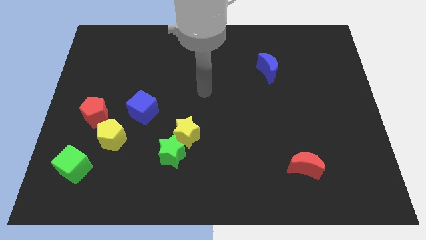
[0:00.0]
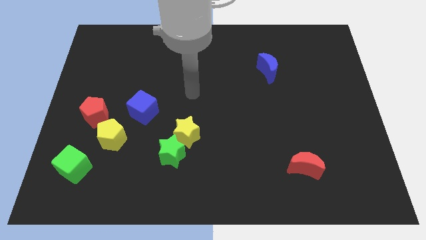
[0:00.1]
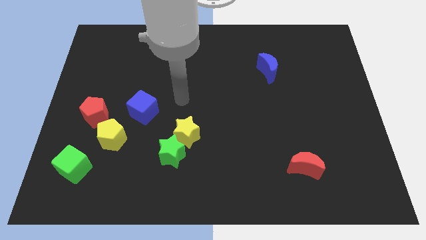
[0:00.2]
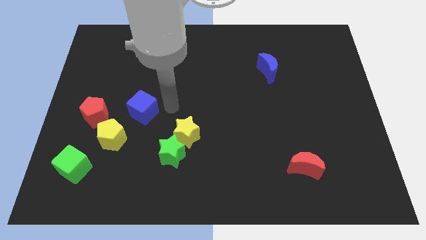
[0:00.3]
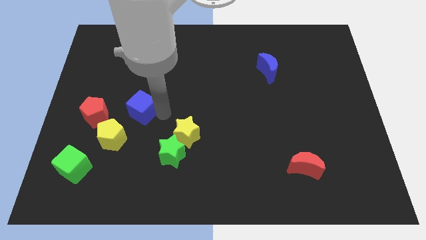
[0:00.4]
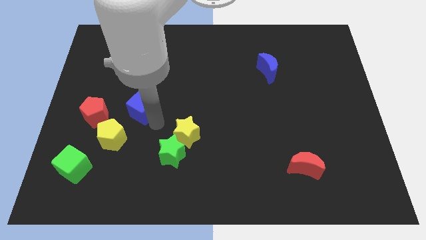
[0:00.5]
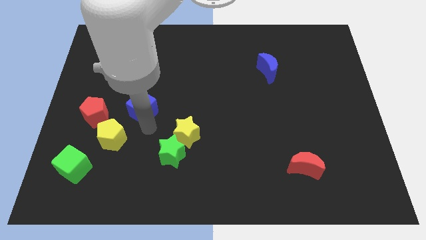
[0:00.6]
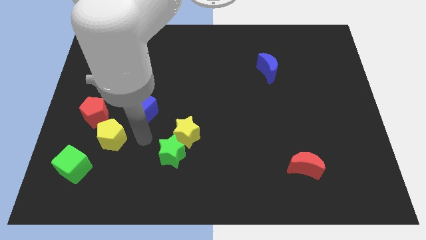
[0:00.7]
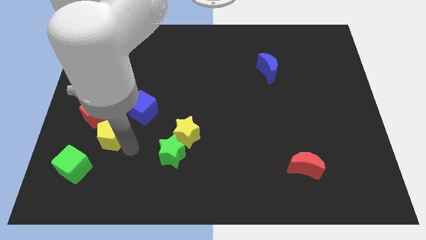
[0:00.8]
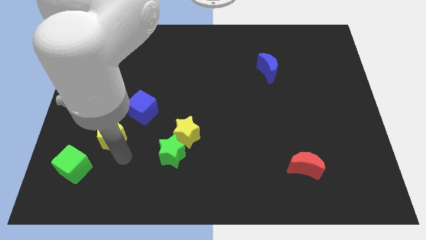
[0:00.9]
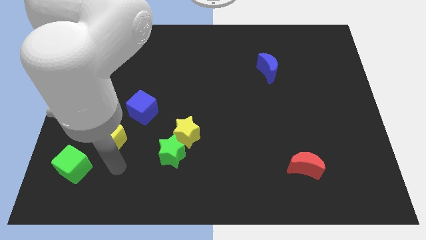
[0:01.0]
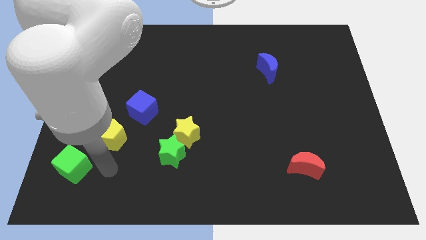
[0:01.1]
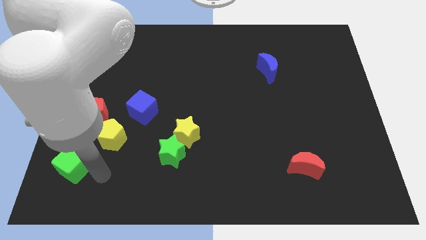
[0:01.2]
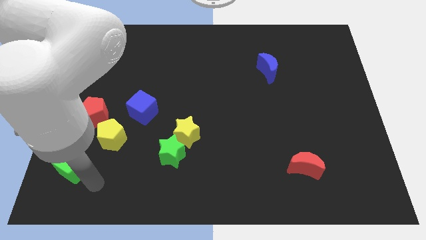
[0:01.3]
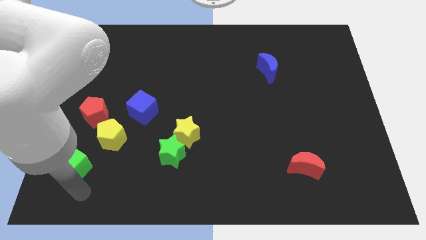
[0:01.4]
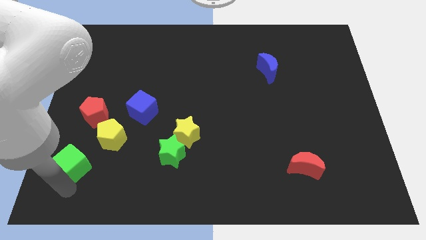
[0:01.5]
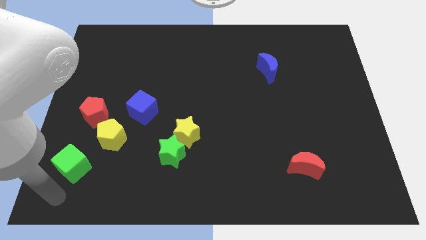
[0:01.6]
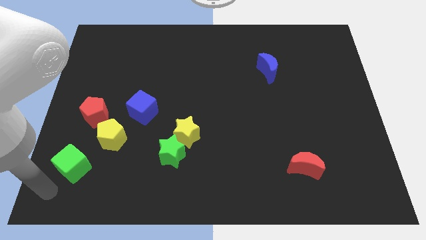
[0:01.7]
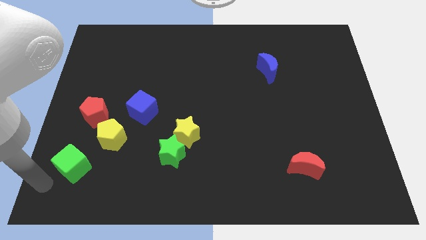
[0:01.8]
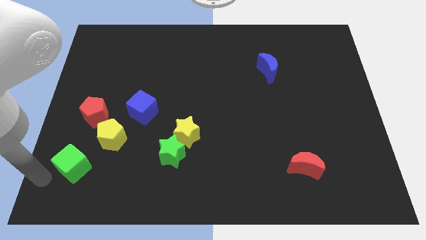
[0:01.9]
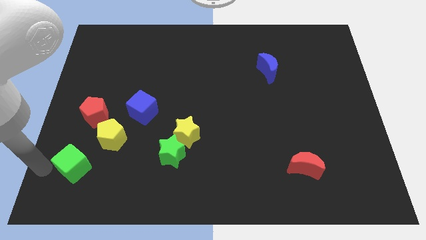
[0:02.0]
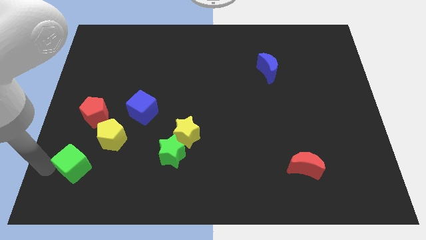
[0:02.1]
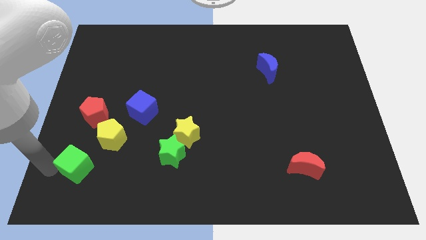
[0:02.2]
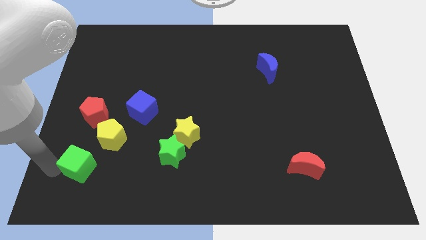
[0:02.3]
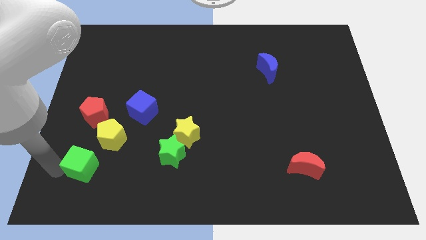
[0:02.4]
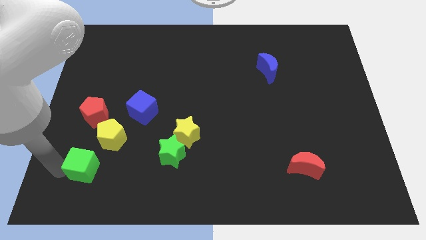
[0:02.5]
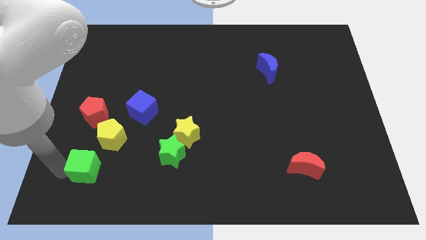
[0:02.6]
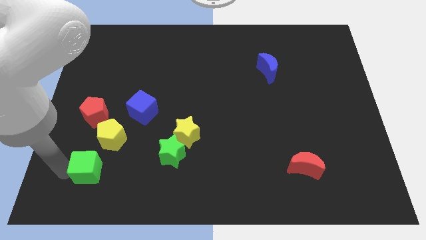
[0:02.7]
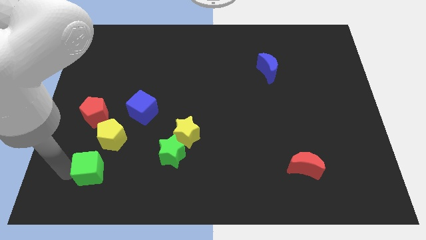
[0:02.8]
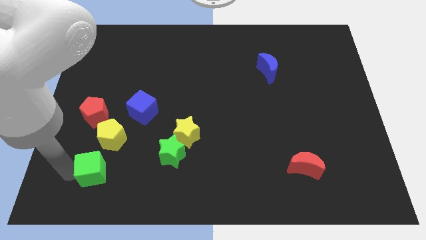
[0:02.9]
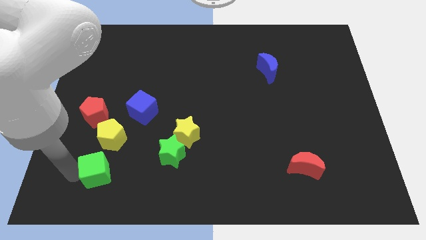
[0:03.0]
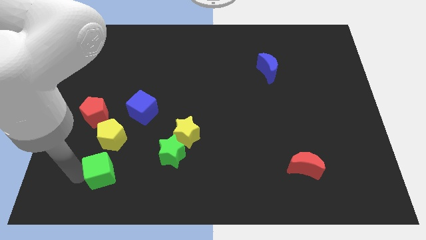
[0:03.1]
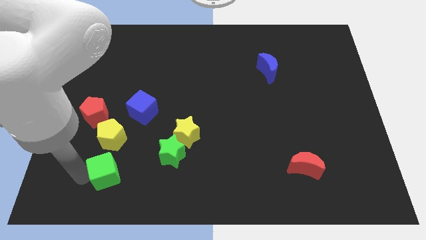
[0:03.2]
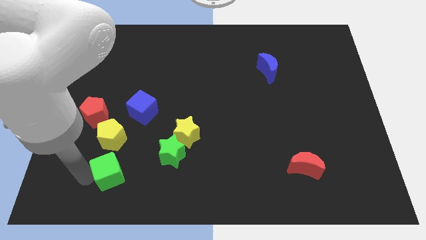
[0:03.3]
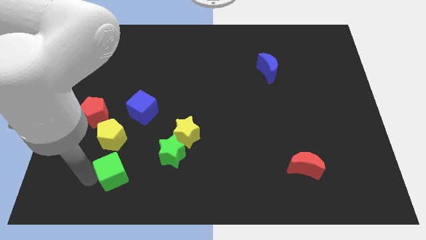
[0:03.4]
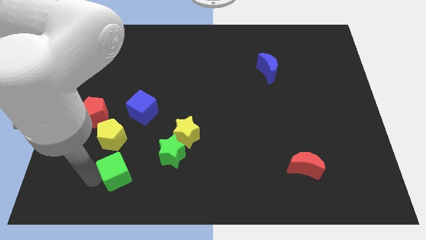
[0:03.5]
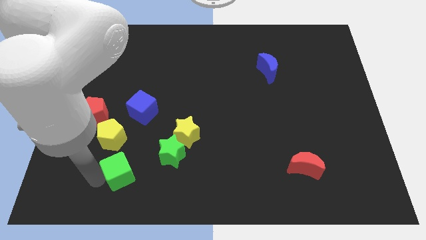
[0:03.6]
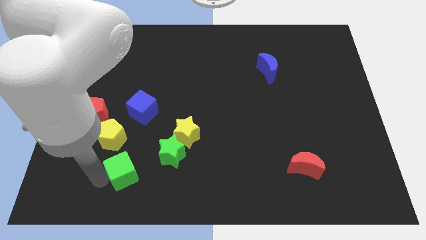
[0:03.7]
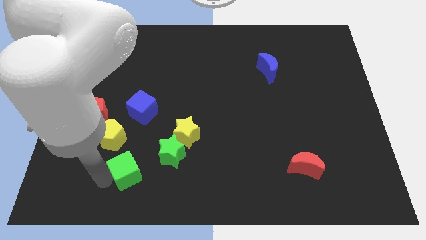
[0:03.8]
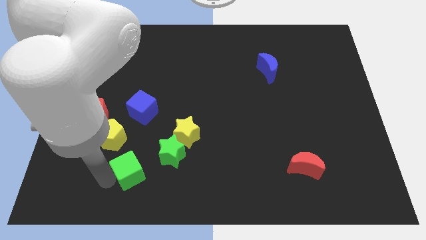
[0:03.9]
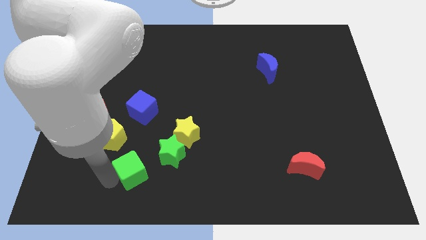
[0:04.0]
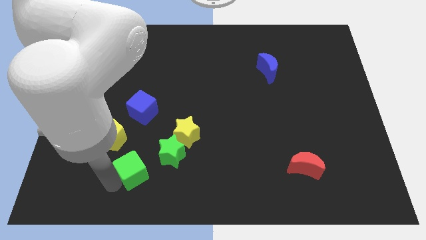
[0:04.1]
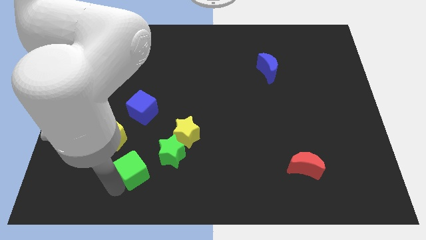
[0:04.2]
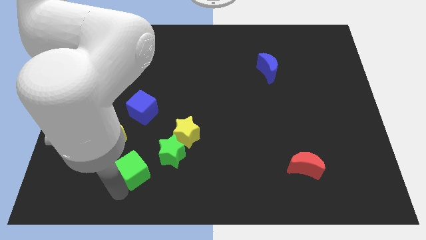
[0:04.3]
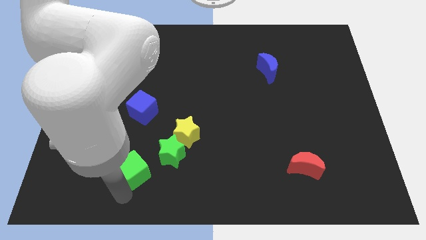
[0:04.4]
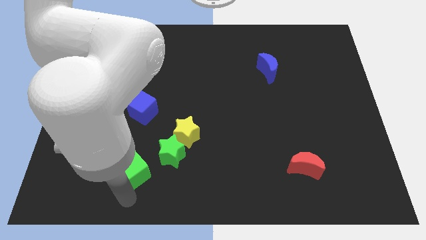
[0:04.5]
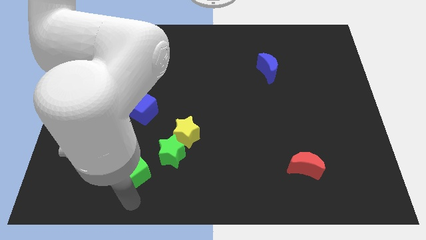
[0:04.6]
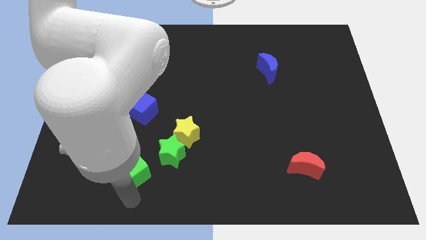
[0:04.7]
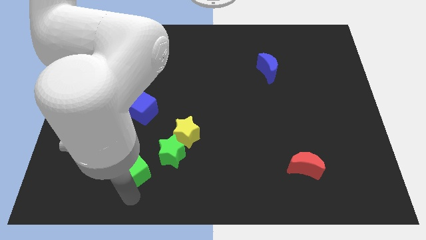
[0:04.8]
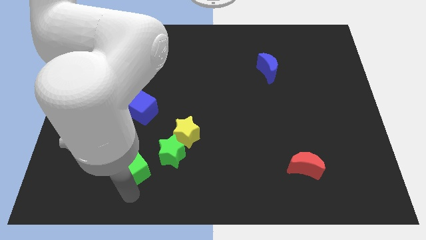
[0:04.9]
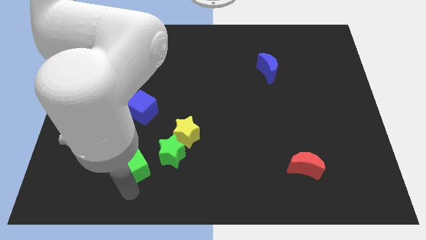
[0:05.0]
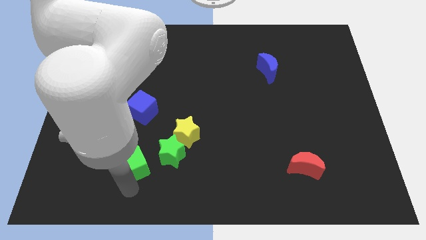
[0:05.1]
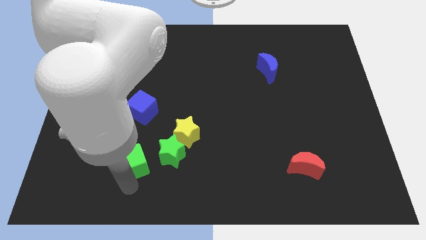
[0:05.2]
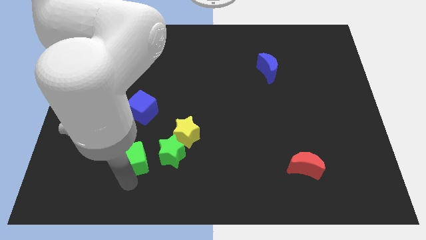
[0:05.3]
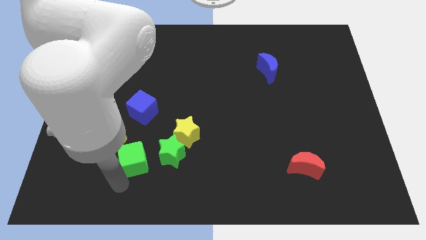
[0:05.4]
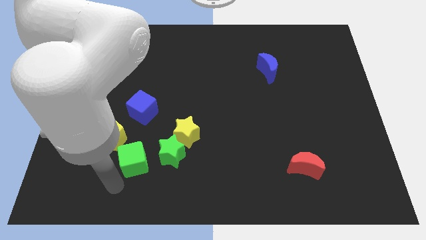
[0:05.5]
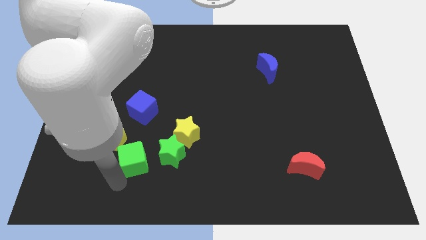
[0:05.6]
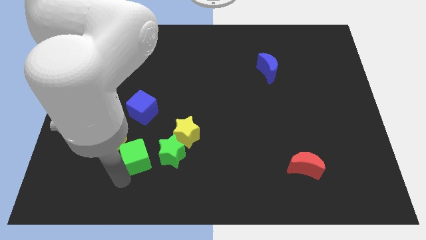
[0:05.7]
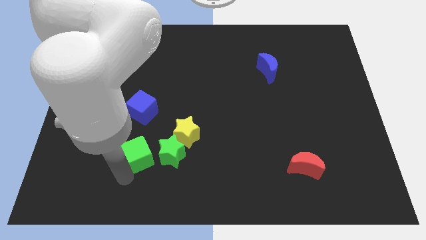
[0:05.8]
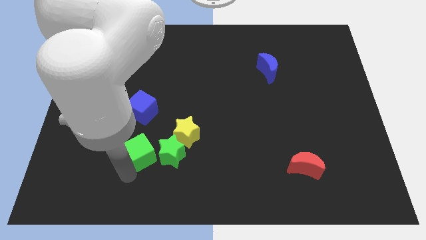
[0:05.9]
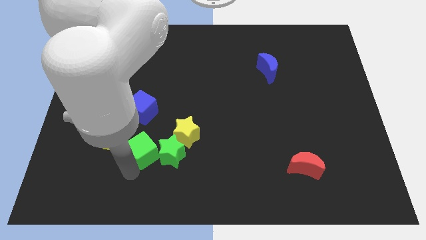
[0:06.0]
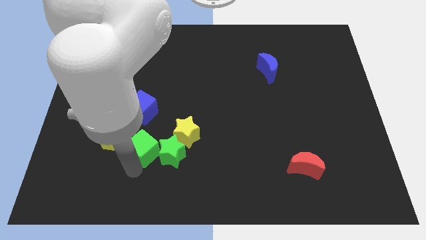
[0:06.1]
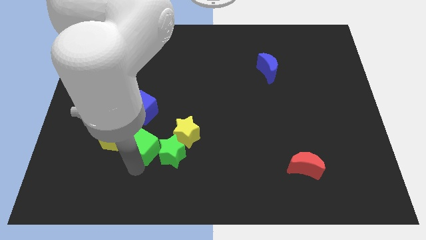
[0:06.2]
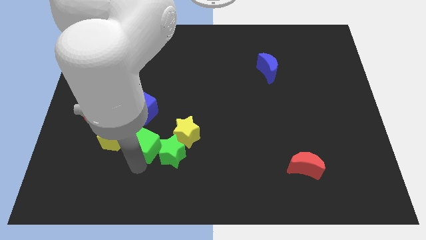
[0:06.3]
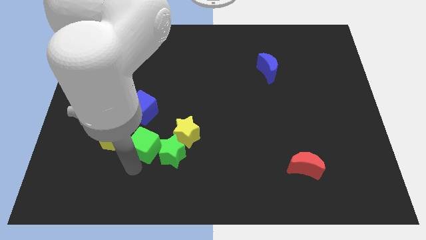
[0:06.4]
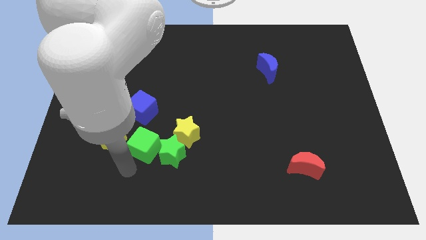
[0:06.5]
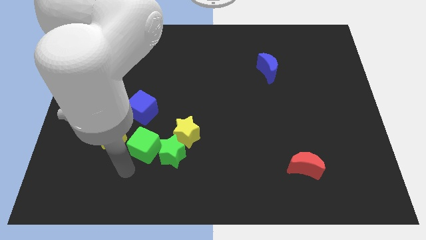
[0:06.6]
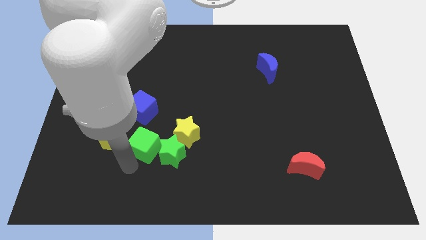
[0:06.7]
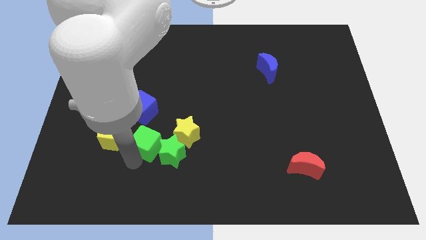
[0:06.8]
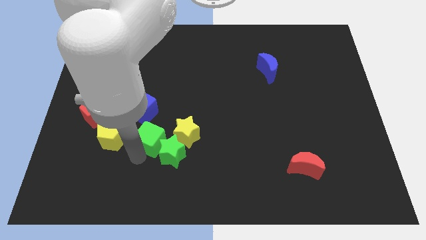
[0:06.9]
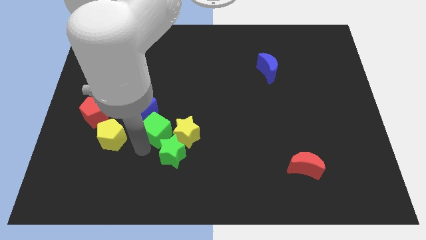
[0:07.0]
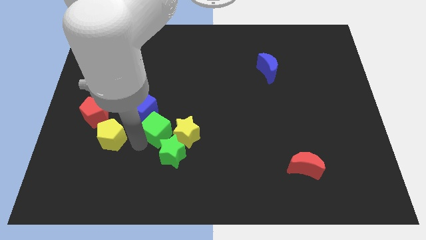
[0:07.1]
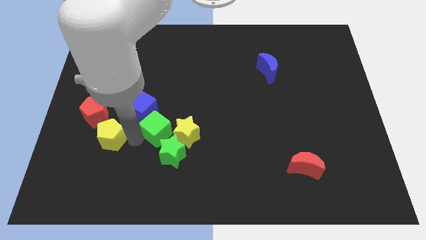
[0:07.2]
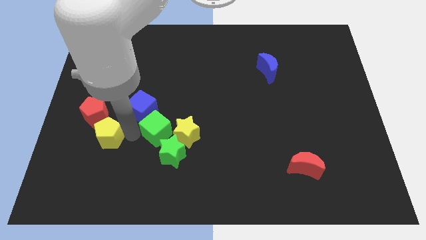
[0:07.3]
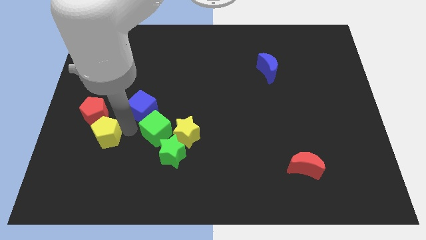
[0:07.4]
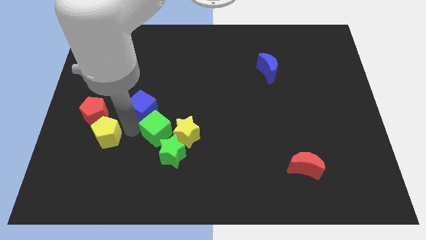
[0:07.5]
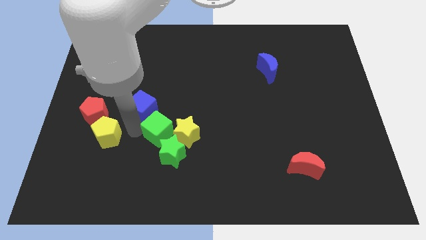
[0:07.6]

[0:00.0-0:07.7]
move the green cube close to the yellow star

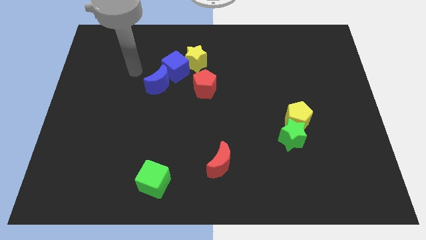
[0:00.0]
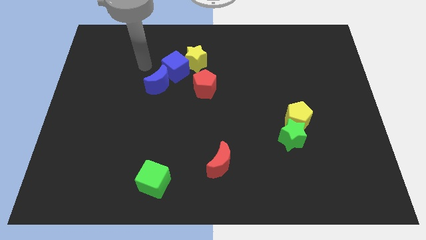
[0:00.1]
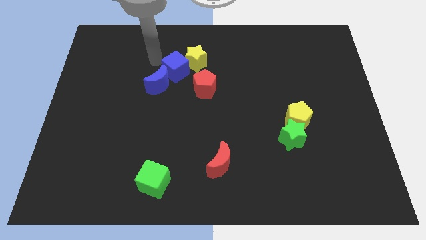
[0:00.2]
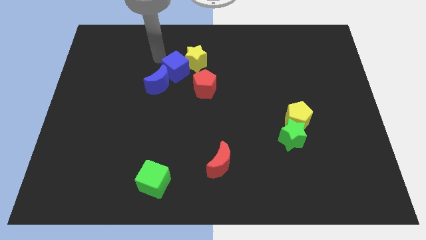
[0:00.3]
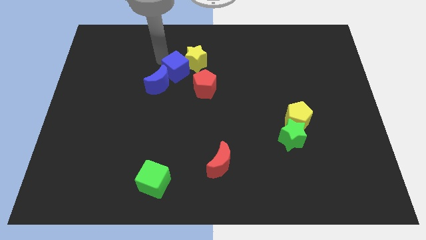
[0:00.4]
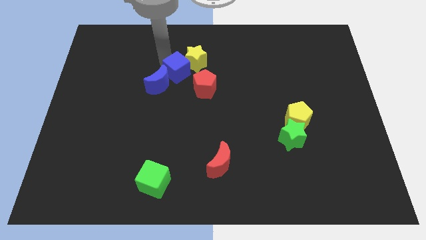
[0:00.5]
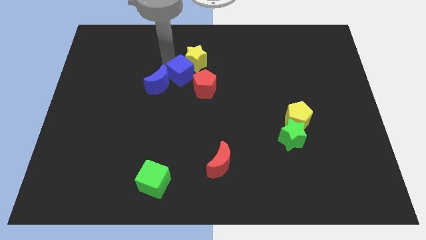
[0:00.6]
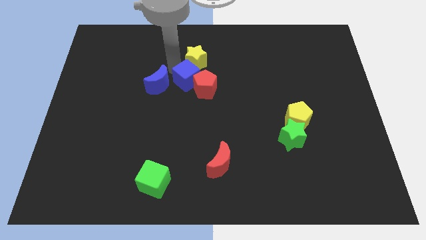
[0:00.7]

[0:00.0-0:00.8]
move the blue cube close to the red pentagon
